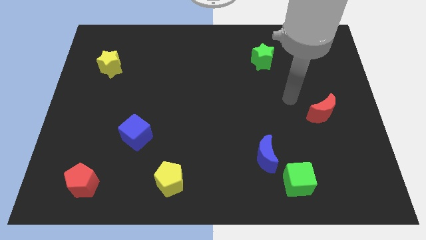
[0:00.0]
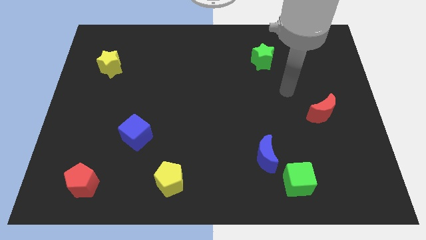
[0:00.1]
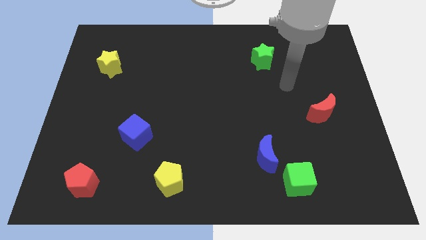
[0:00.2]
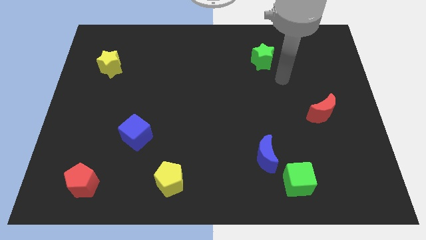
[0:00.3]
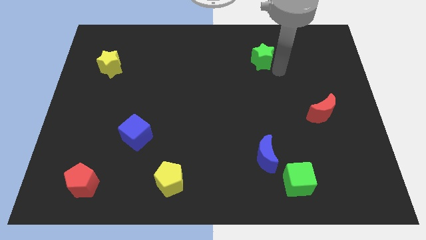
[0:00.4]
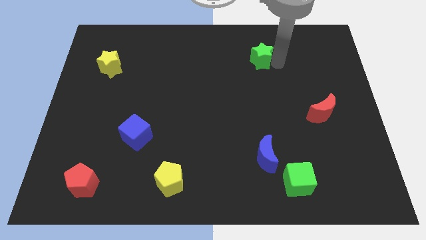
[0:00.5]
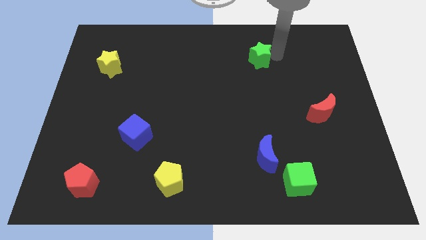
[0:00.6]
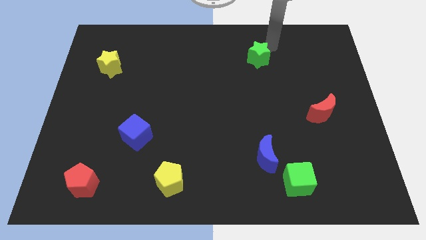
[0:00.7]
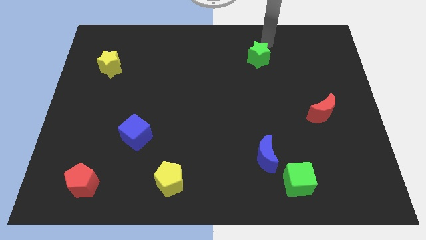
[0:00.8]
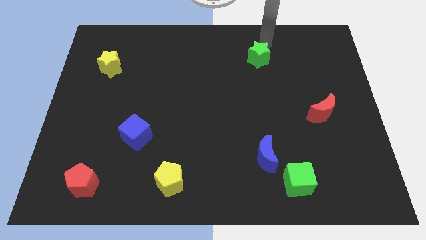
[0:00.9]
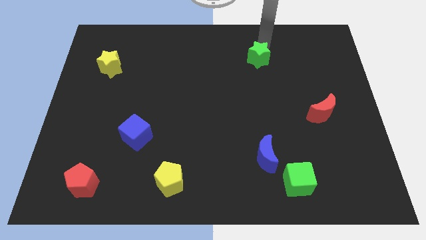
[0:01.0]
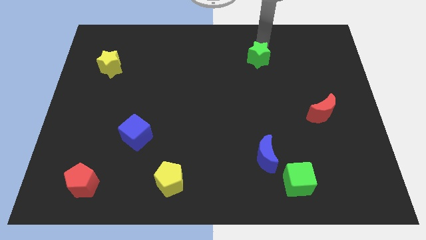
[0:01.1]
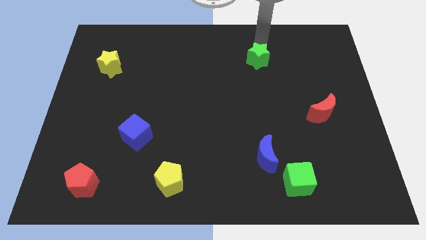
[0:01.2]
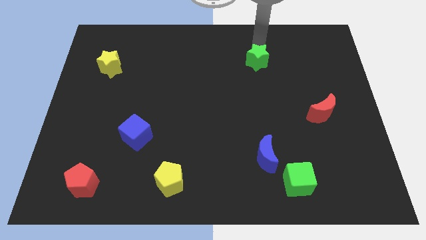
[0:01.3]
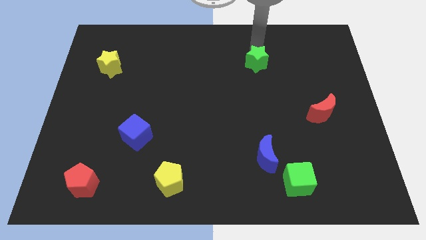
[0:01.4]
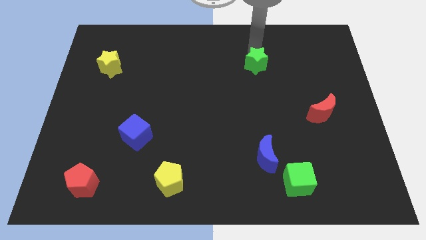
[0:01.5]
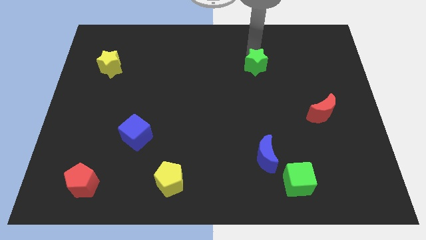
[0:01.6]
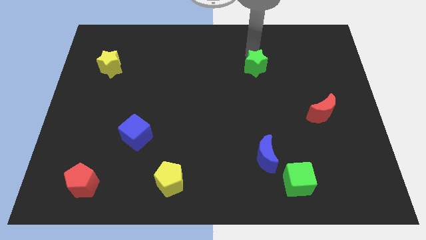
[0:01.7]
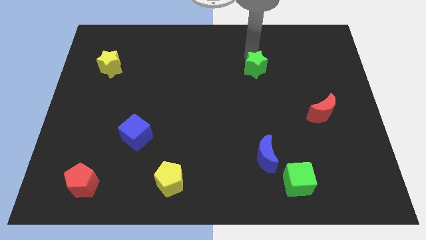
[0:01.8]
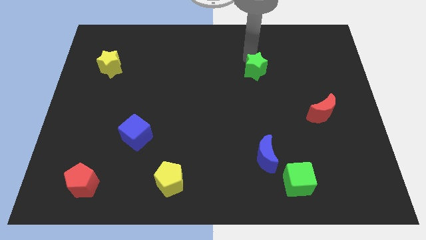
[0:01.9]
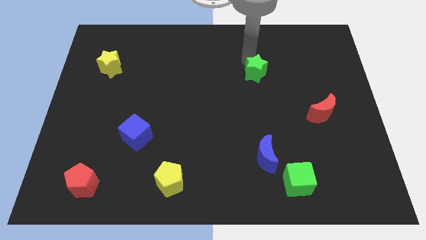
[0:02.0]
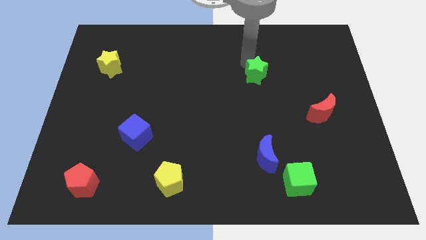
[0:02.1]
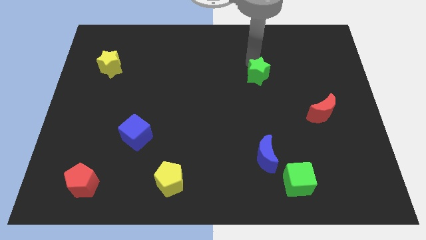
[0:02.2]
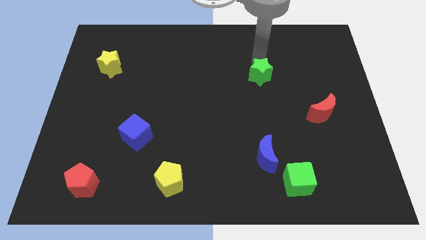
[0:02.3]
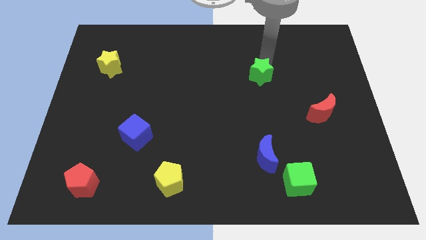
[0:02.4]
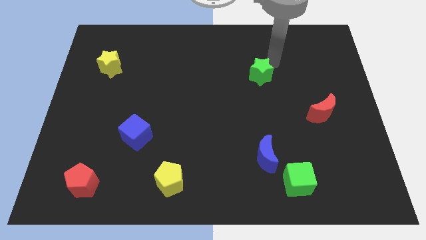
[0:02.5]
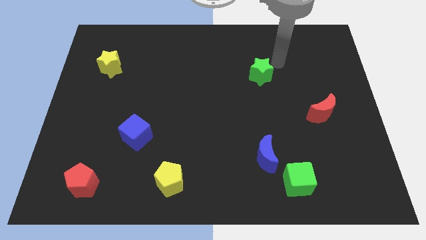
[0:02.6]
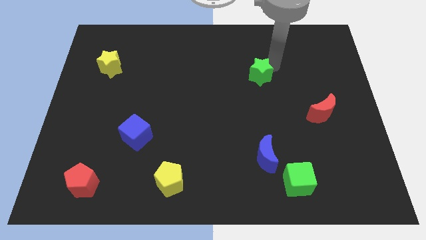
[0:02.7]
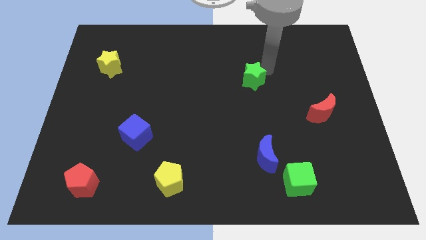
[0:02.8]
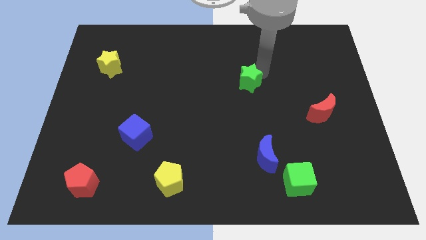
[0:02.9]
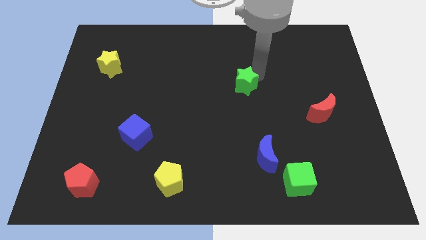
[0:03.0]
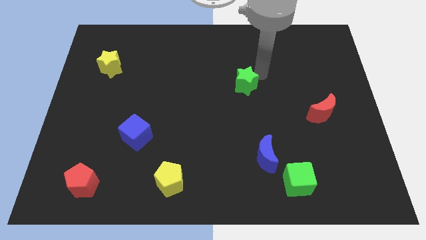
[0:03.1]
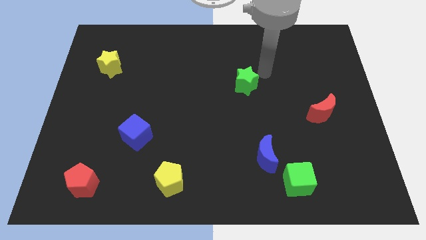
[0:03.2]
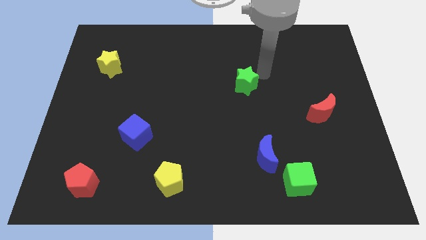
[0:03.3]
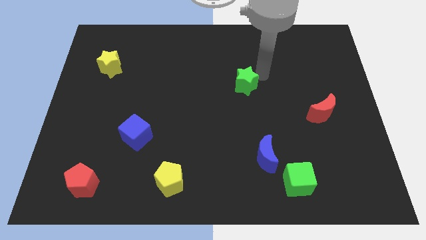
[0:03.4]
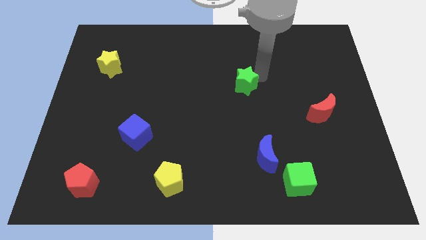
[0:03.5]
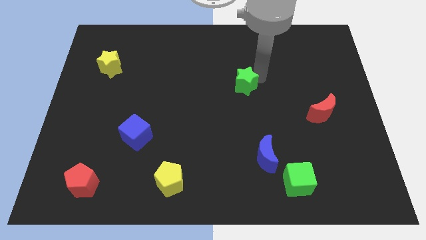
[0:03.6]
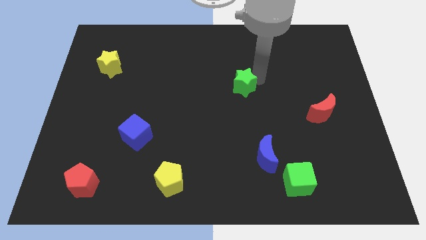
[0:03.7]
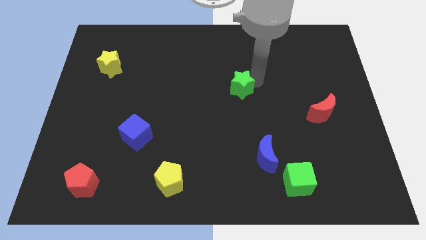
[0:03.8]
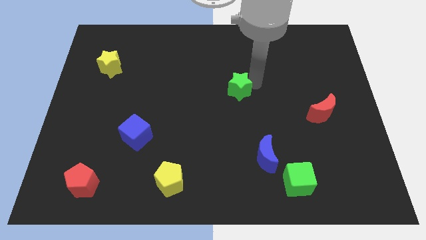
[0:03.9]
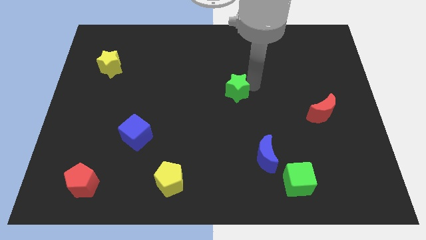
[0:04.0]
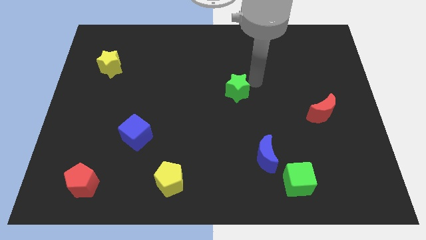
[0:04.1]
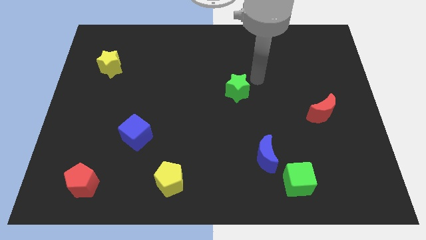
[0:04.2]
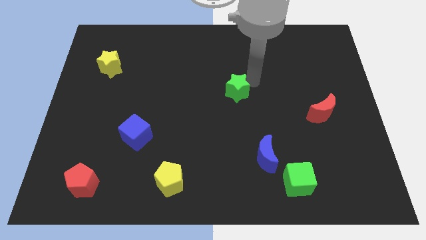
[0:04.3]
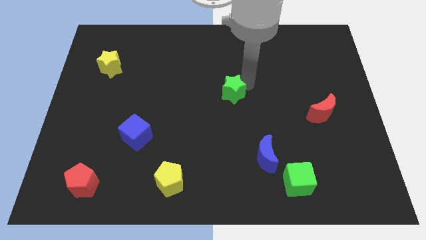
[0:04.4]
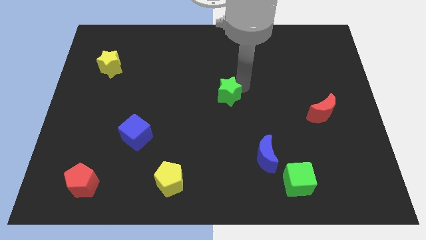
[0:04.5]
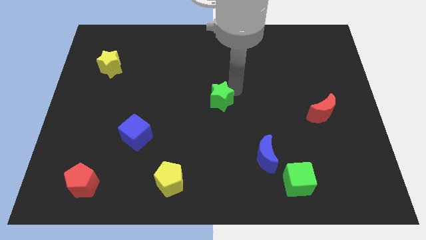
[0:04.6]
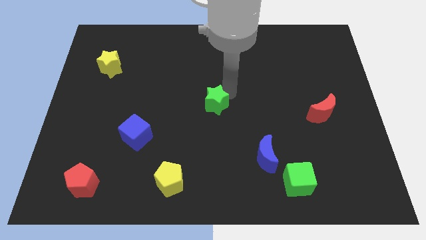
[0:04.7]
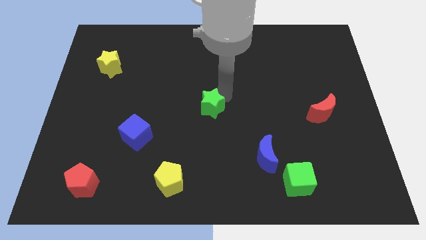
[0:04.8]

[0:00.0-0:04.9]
push the green star down and left diagonally

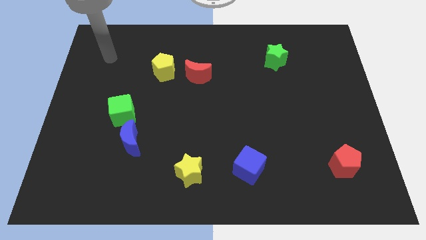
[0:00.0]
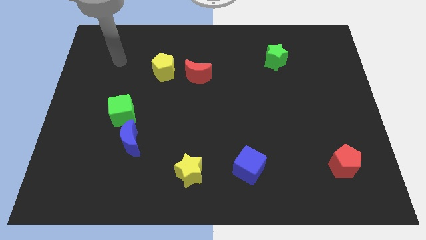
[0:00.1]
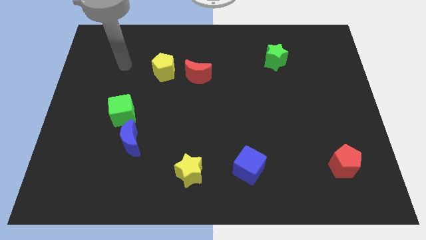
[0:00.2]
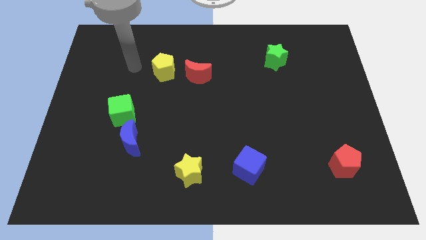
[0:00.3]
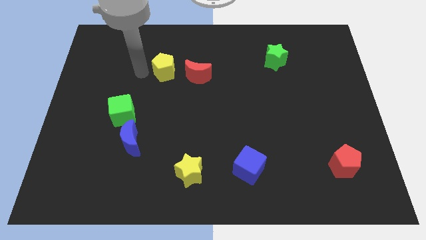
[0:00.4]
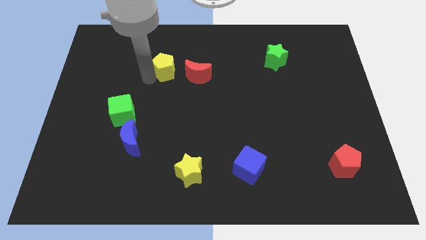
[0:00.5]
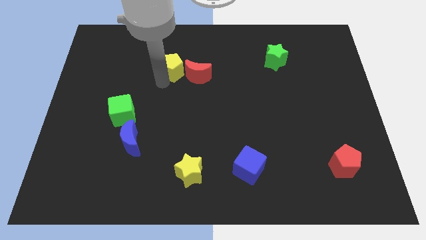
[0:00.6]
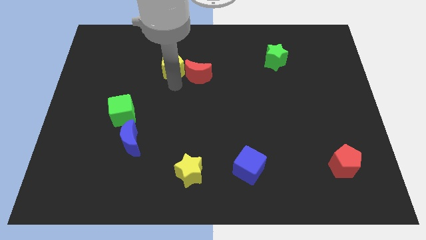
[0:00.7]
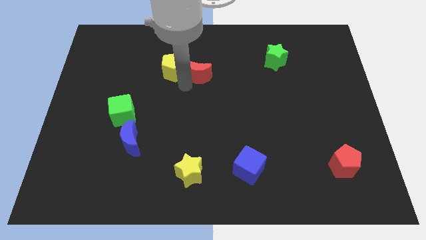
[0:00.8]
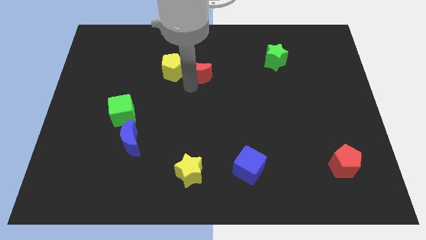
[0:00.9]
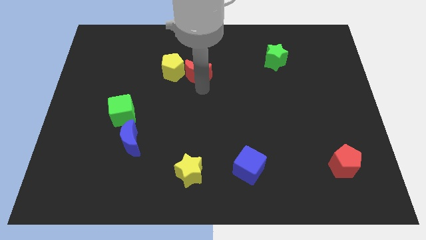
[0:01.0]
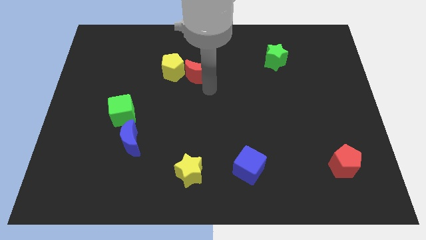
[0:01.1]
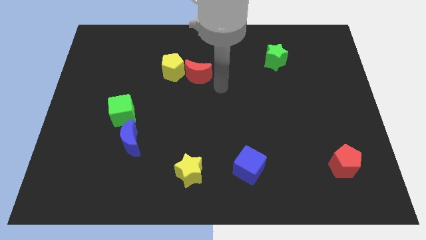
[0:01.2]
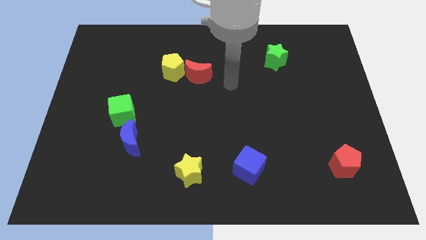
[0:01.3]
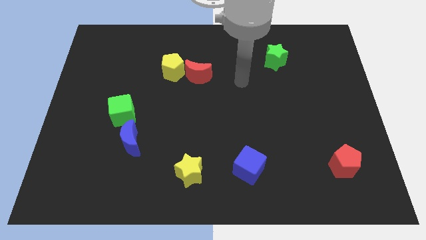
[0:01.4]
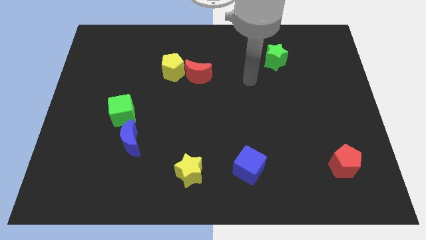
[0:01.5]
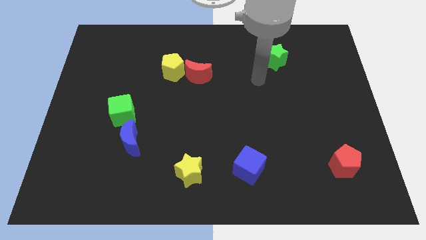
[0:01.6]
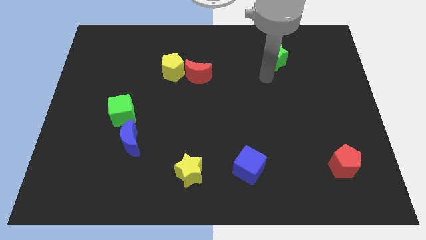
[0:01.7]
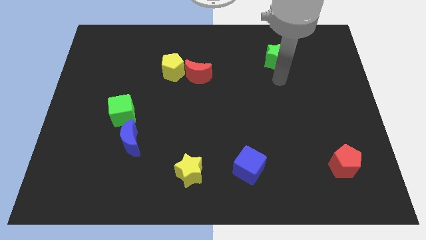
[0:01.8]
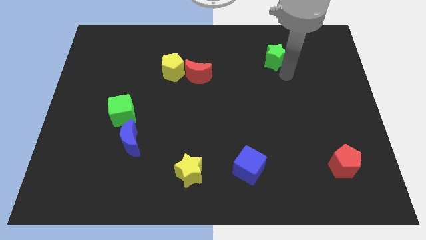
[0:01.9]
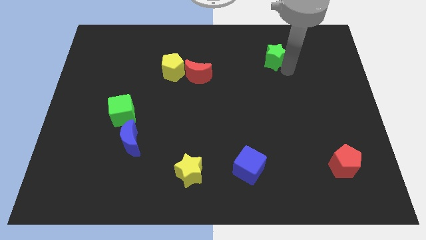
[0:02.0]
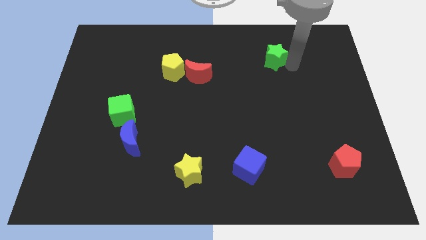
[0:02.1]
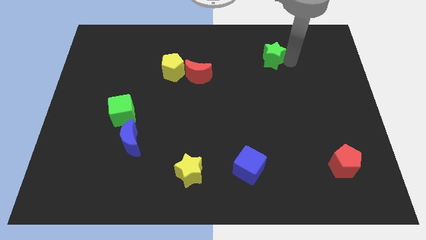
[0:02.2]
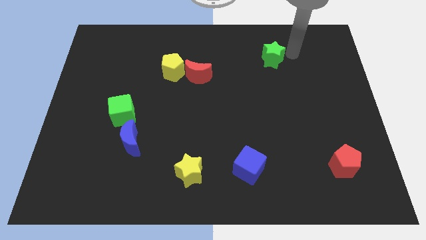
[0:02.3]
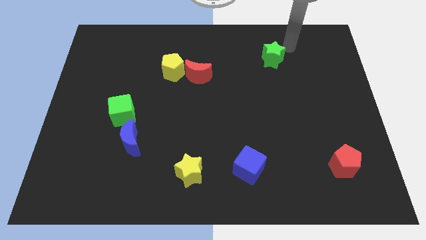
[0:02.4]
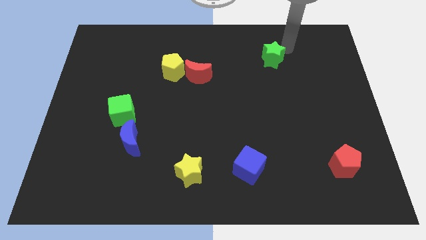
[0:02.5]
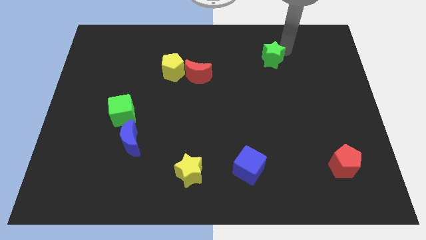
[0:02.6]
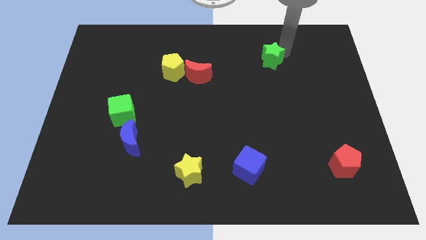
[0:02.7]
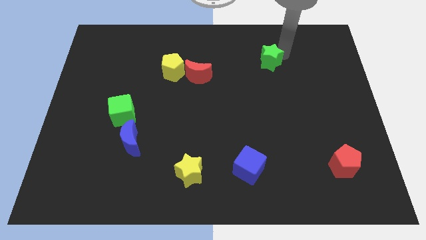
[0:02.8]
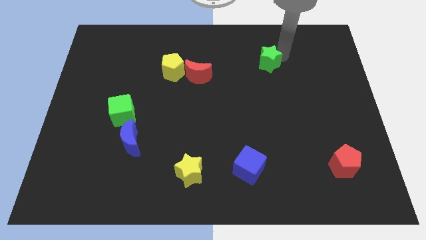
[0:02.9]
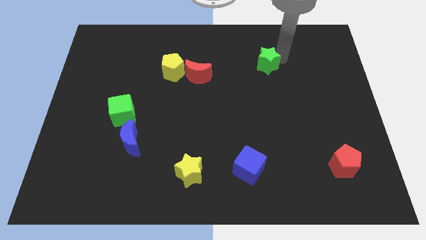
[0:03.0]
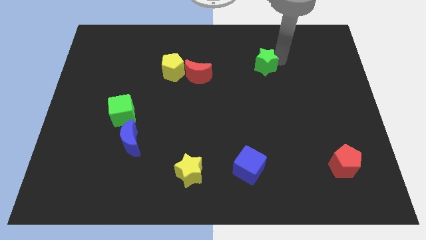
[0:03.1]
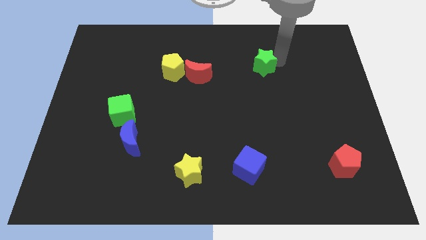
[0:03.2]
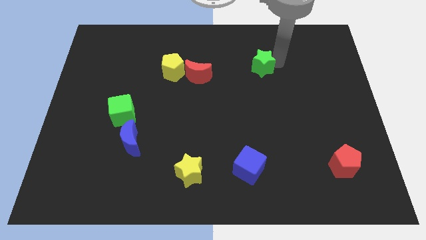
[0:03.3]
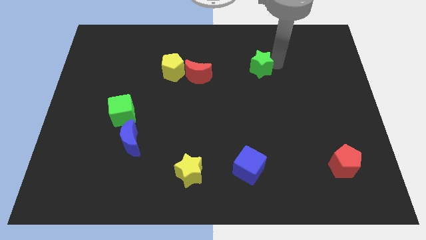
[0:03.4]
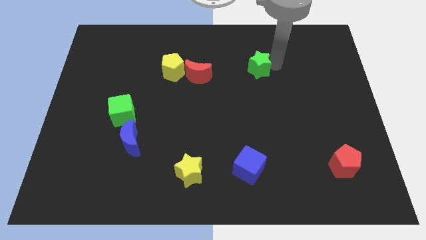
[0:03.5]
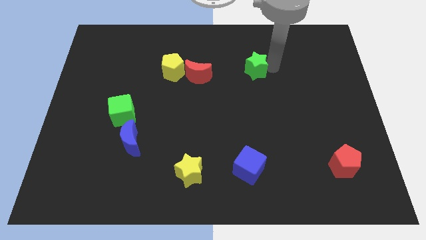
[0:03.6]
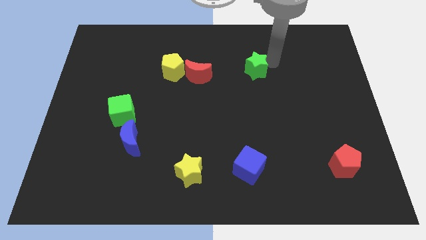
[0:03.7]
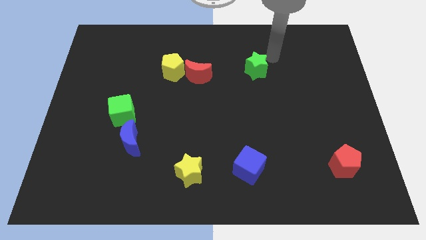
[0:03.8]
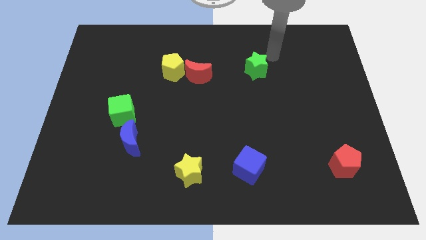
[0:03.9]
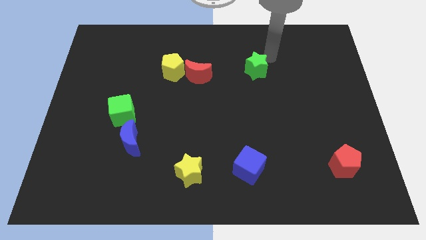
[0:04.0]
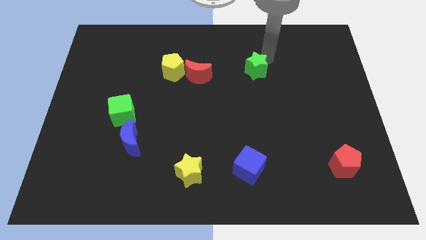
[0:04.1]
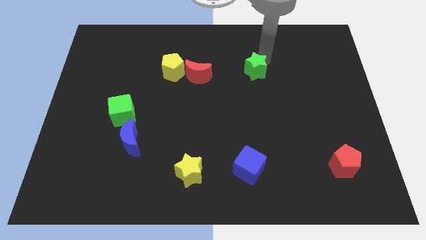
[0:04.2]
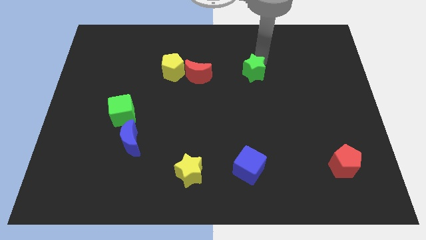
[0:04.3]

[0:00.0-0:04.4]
push the green star a bit diagonally downwards and to the left
